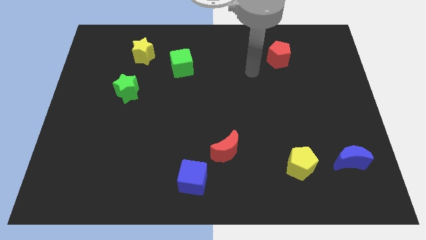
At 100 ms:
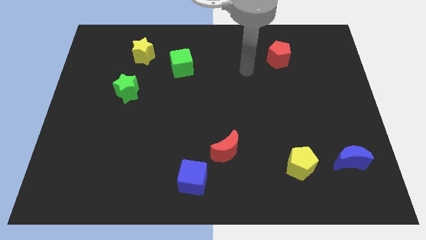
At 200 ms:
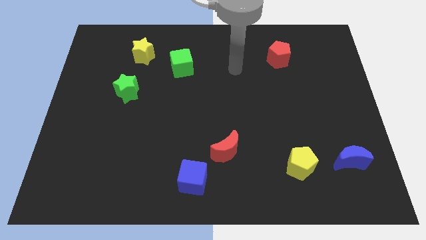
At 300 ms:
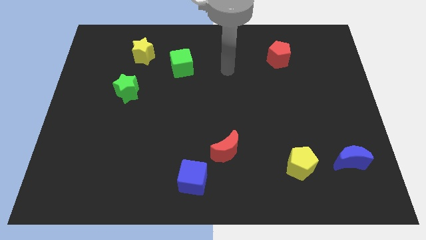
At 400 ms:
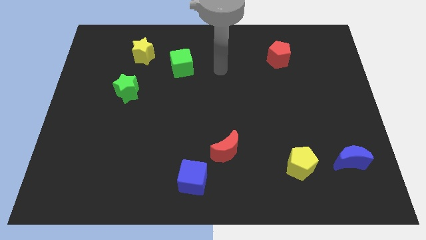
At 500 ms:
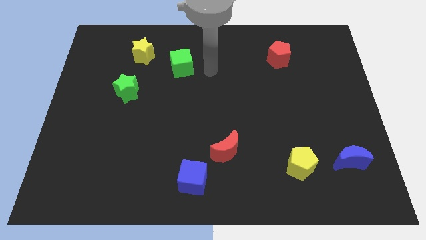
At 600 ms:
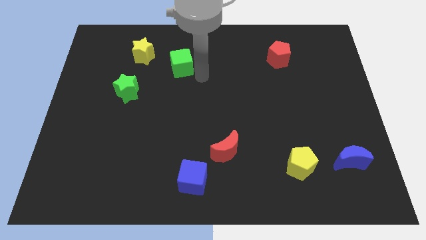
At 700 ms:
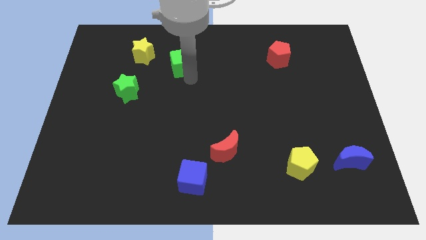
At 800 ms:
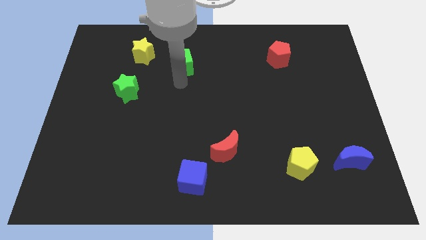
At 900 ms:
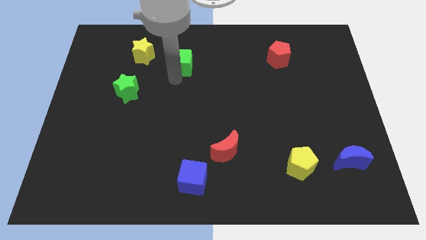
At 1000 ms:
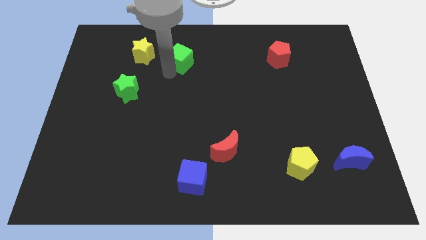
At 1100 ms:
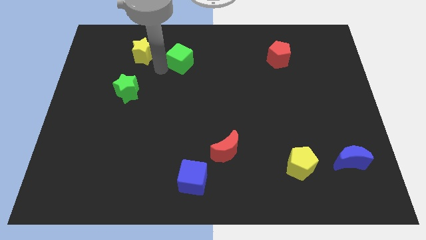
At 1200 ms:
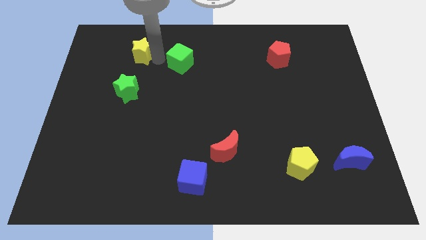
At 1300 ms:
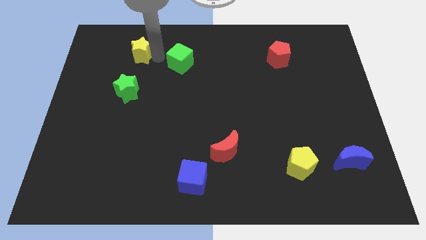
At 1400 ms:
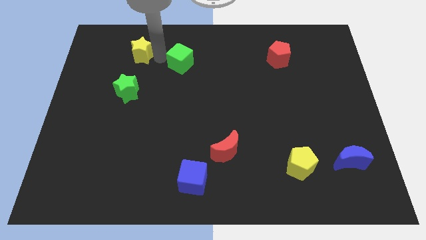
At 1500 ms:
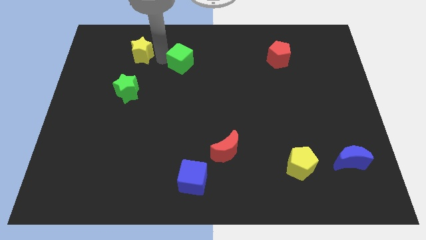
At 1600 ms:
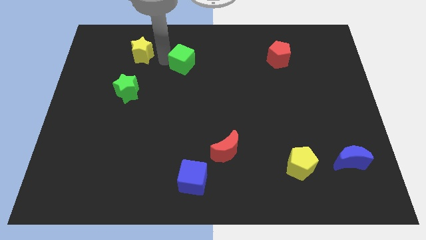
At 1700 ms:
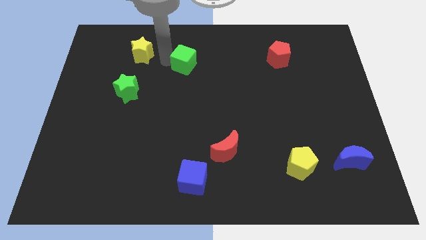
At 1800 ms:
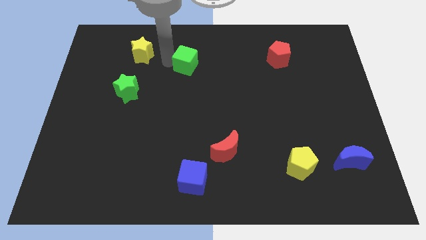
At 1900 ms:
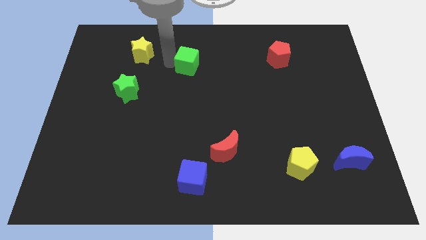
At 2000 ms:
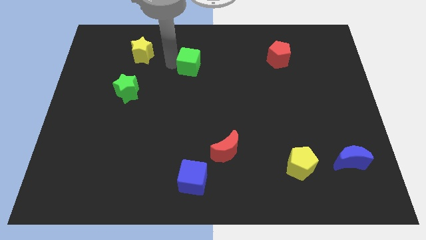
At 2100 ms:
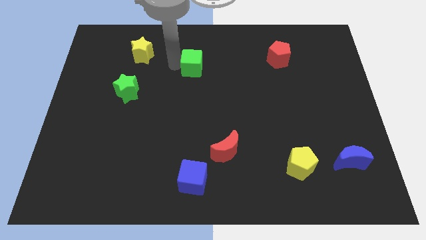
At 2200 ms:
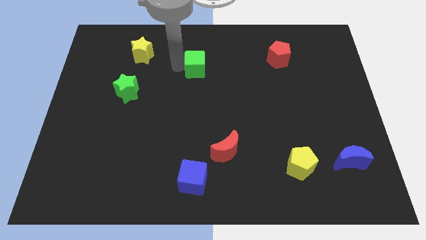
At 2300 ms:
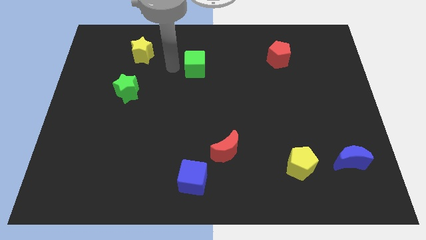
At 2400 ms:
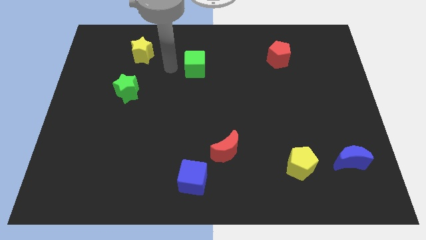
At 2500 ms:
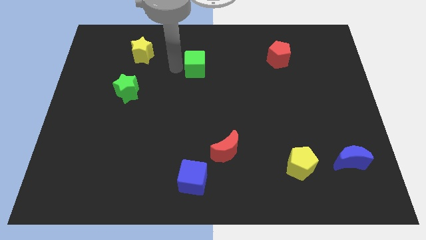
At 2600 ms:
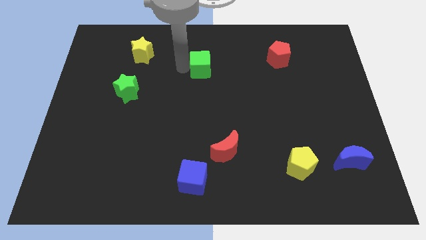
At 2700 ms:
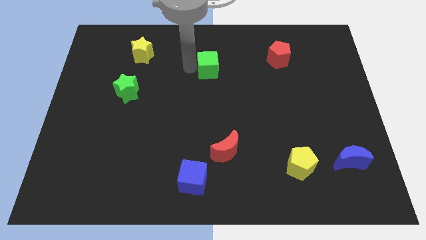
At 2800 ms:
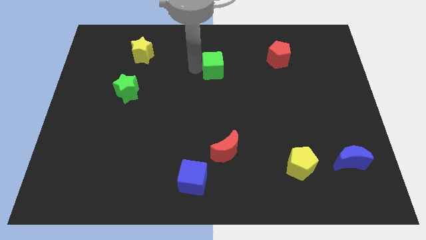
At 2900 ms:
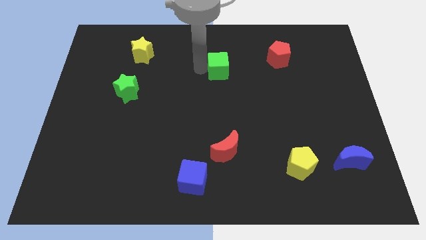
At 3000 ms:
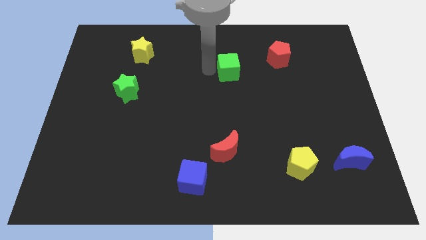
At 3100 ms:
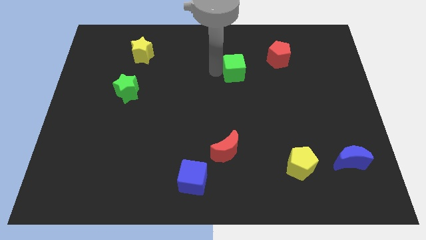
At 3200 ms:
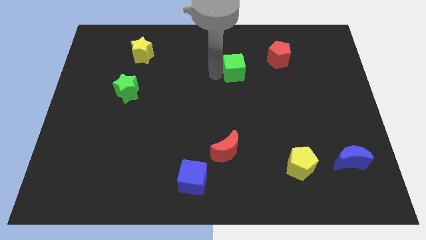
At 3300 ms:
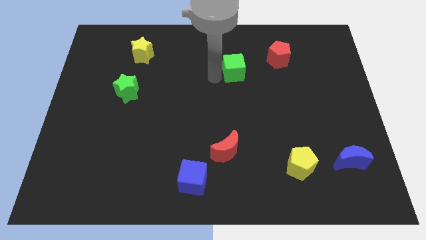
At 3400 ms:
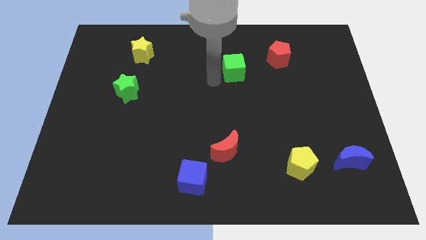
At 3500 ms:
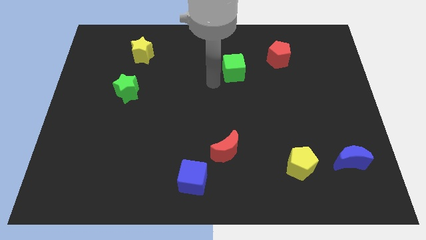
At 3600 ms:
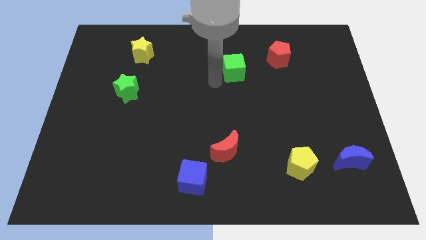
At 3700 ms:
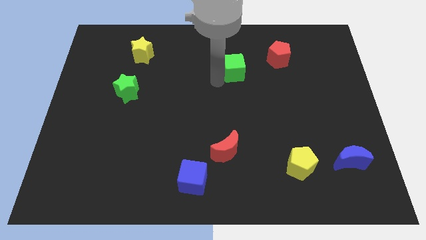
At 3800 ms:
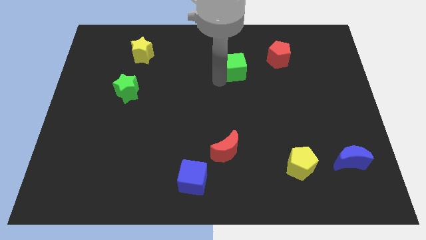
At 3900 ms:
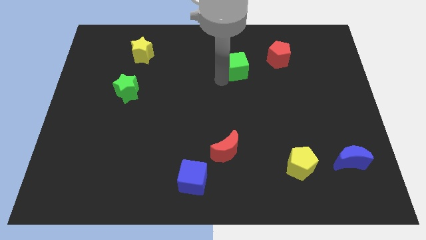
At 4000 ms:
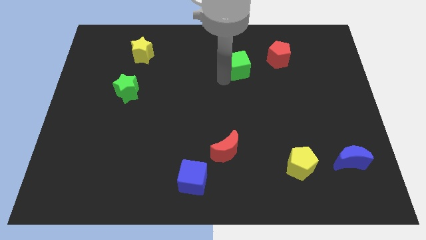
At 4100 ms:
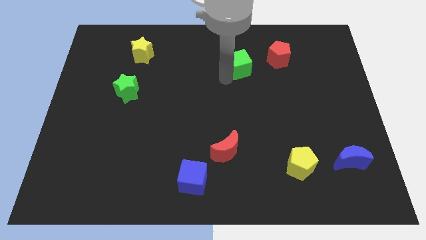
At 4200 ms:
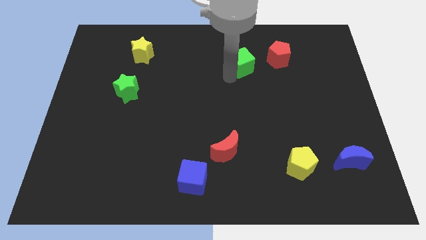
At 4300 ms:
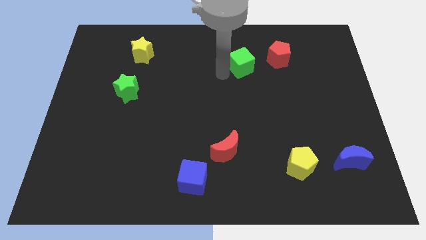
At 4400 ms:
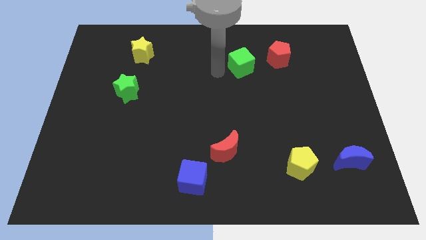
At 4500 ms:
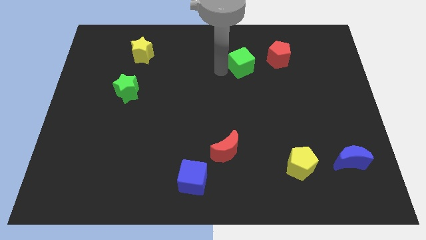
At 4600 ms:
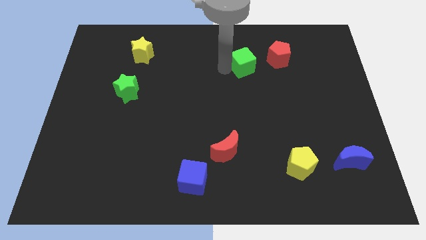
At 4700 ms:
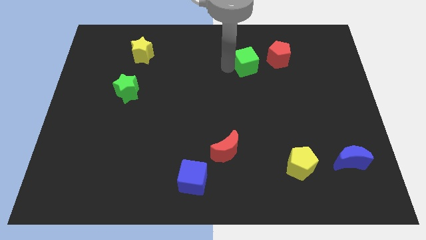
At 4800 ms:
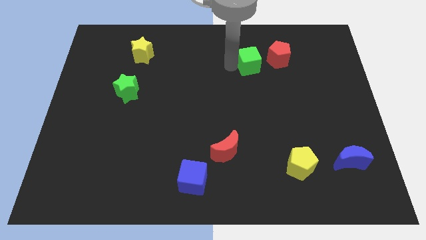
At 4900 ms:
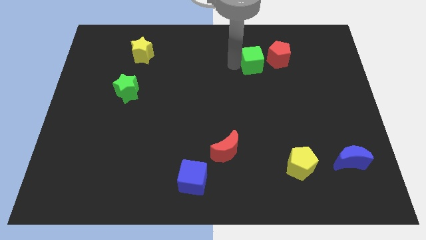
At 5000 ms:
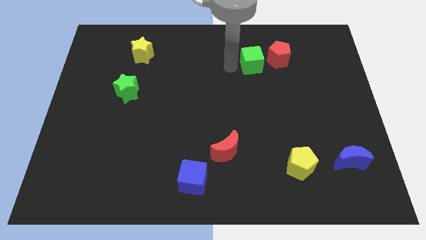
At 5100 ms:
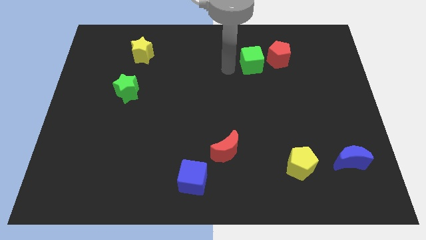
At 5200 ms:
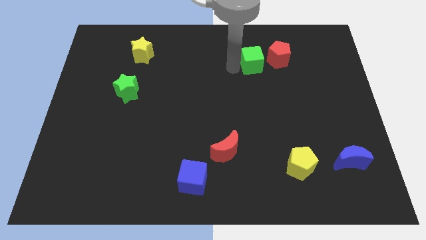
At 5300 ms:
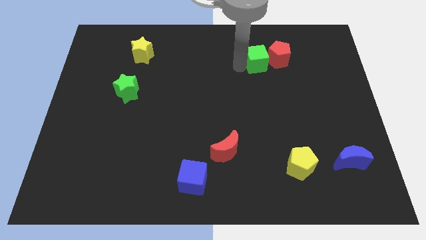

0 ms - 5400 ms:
slide the green cube to the red pentagon

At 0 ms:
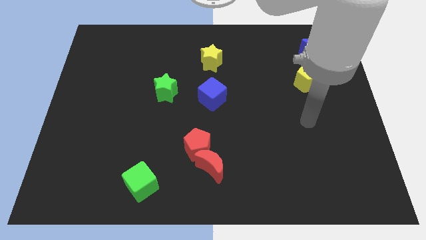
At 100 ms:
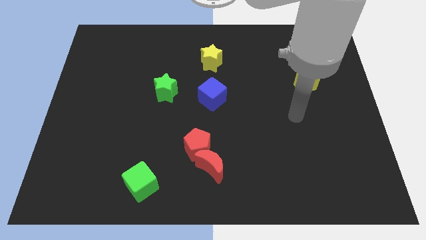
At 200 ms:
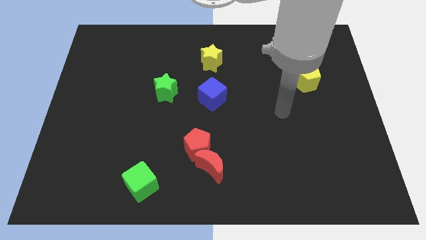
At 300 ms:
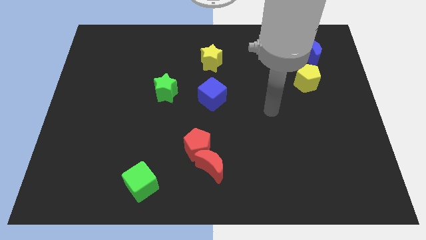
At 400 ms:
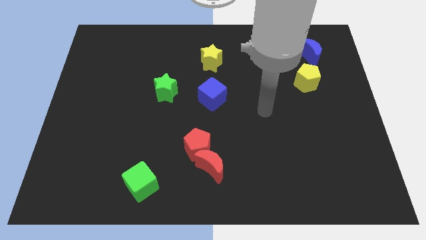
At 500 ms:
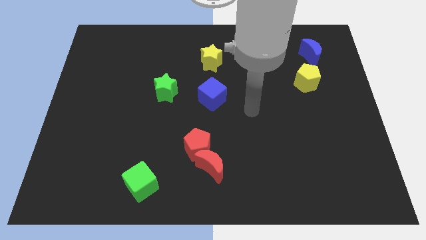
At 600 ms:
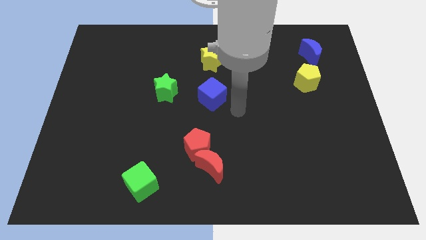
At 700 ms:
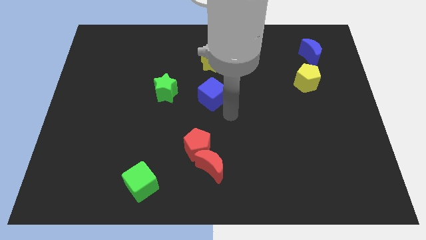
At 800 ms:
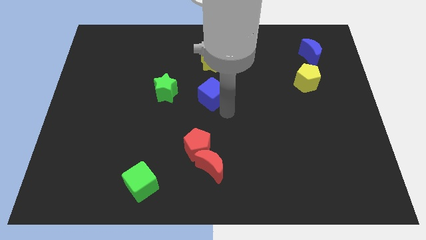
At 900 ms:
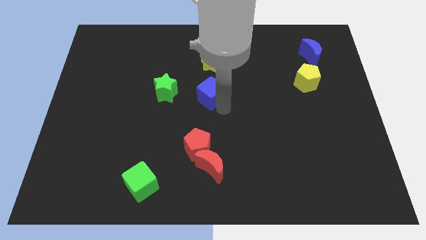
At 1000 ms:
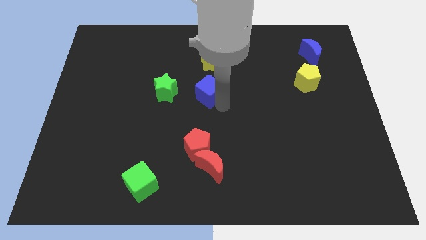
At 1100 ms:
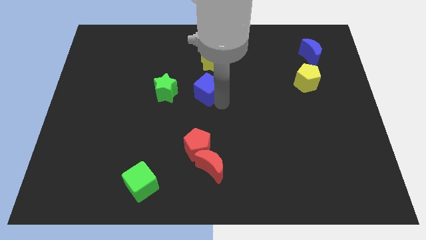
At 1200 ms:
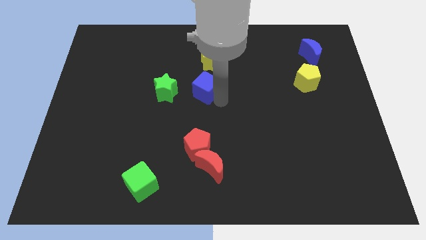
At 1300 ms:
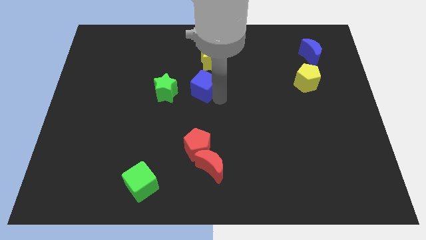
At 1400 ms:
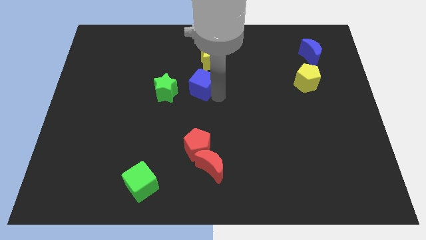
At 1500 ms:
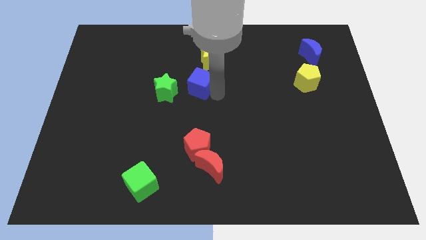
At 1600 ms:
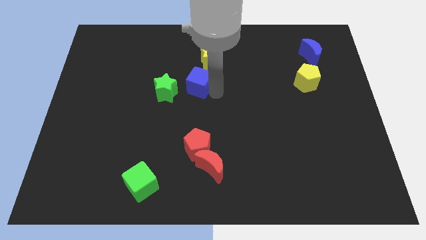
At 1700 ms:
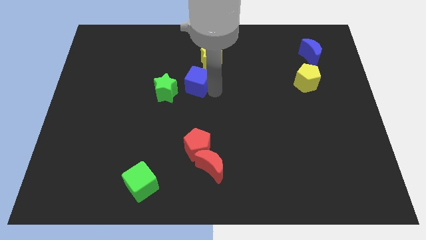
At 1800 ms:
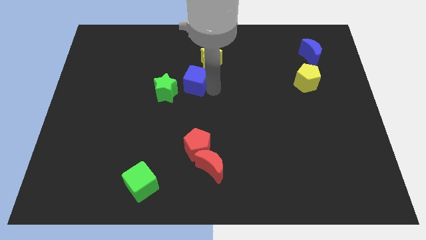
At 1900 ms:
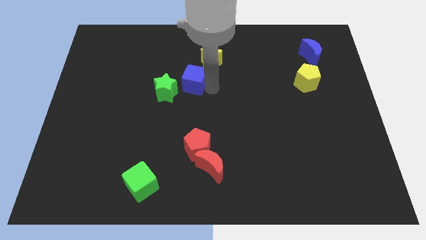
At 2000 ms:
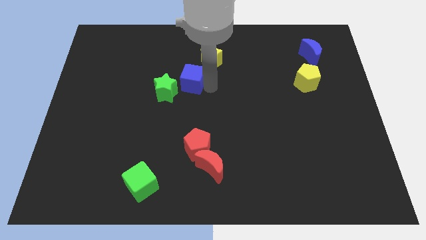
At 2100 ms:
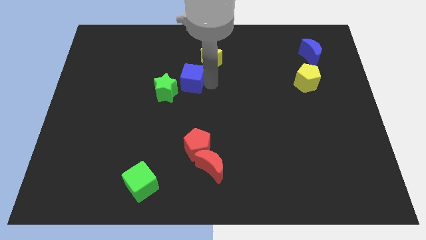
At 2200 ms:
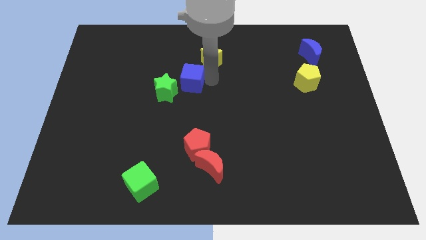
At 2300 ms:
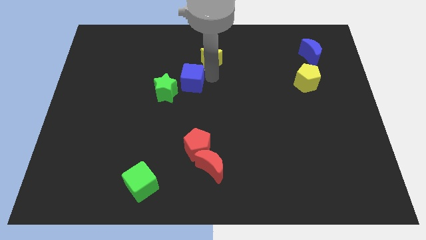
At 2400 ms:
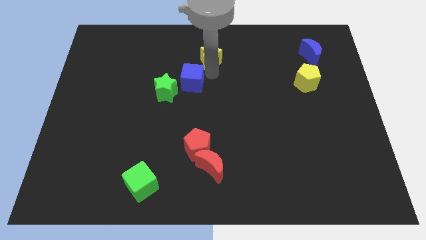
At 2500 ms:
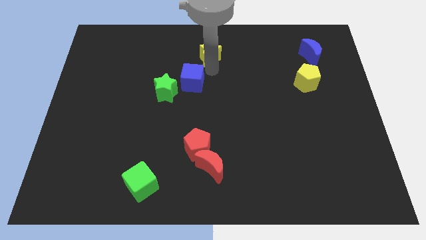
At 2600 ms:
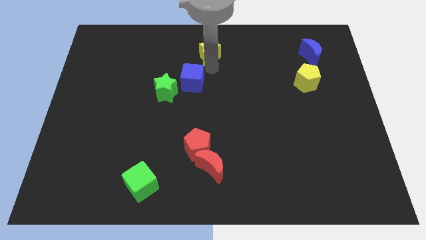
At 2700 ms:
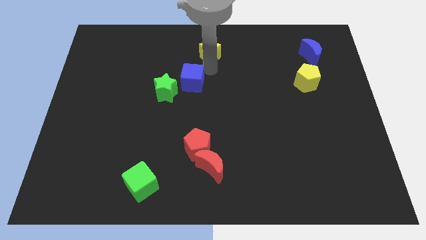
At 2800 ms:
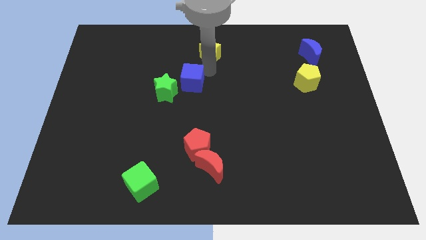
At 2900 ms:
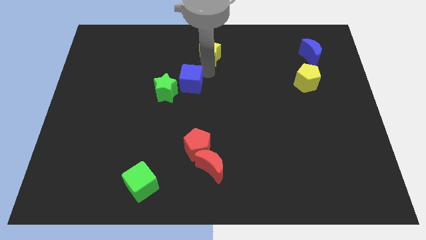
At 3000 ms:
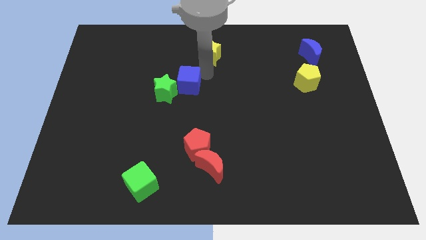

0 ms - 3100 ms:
put the blue cube to the green star
